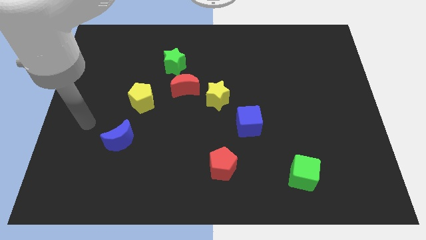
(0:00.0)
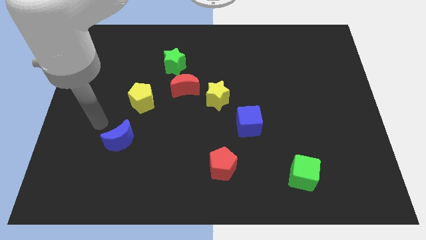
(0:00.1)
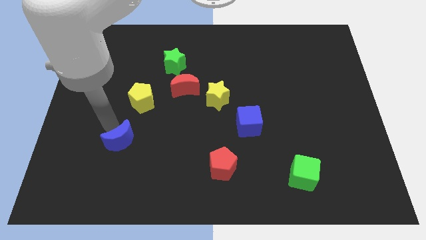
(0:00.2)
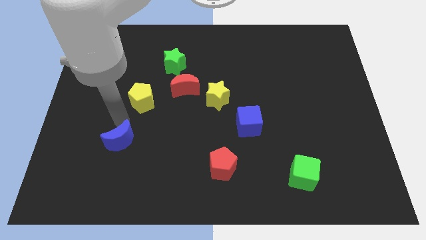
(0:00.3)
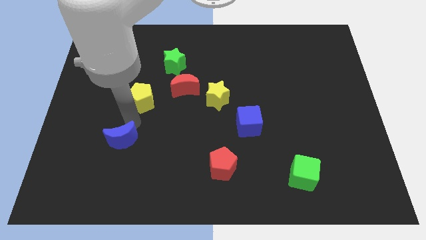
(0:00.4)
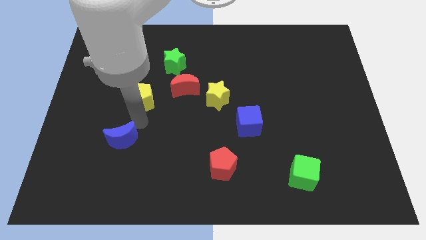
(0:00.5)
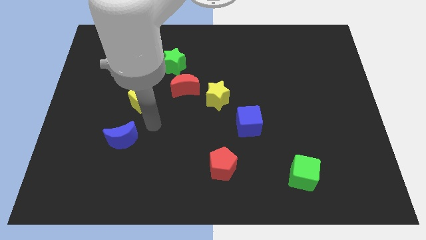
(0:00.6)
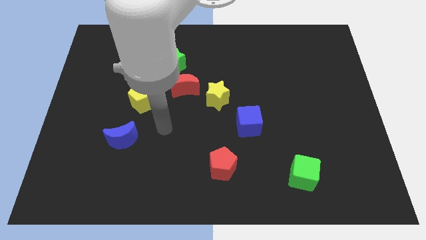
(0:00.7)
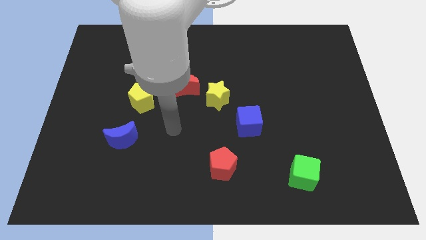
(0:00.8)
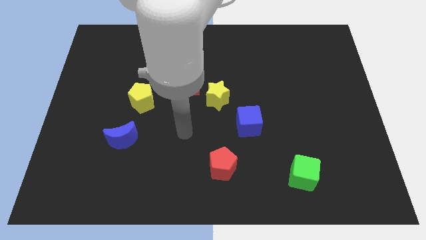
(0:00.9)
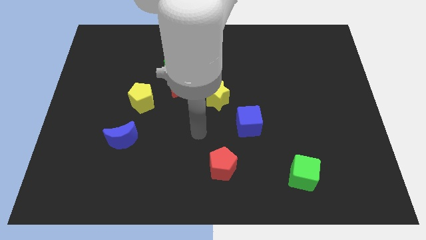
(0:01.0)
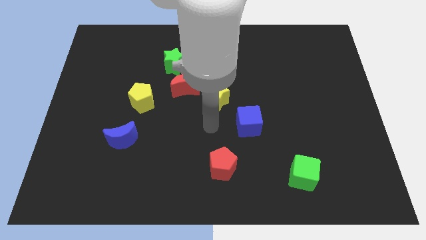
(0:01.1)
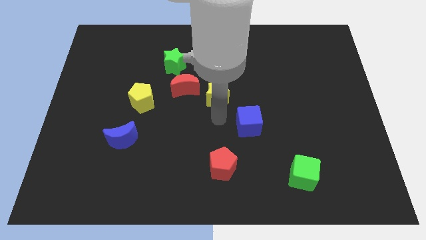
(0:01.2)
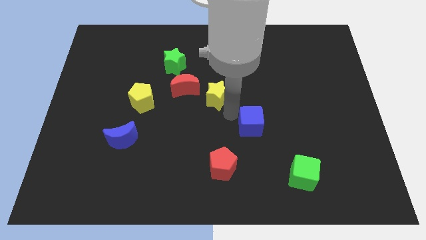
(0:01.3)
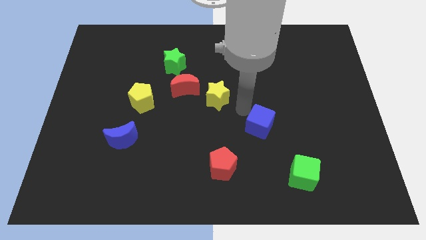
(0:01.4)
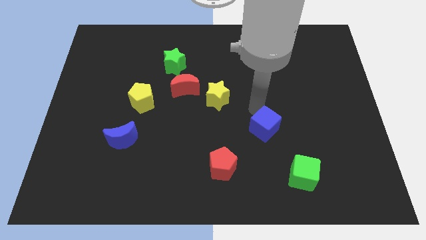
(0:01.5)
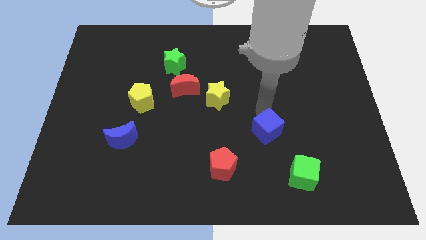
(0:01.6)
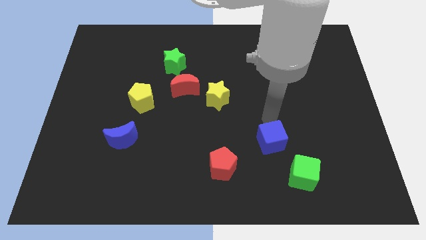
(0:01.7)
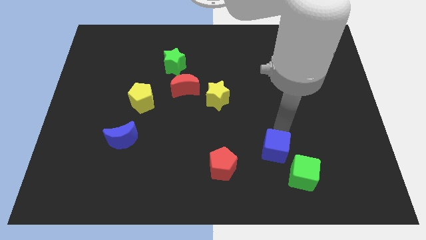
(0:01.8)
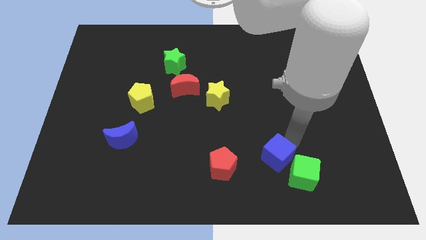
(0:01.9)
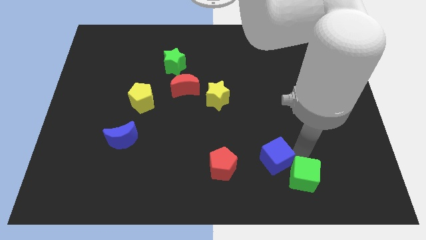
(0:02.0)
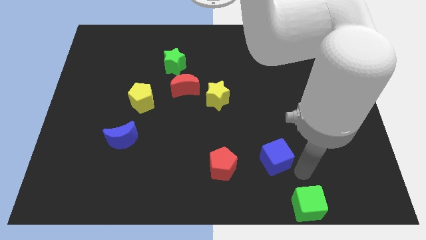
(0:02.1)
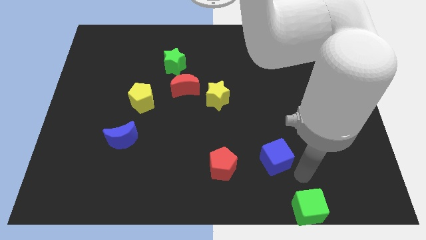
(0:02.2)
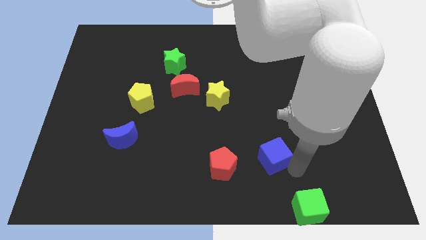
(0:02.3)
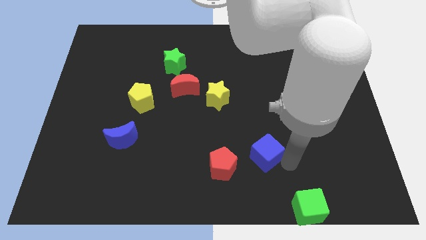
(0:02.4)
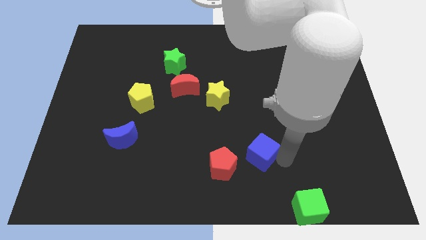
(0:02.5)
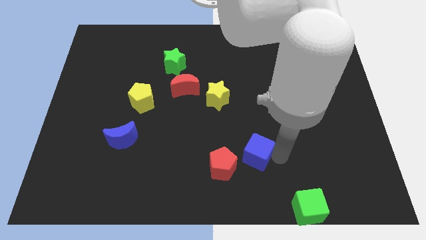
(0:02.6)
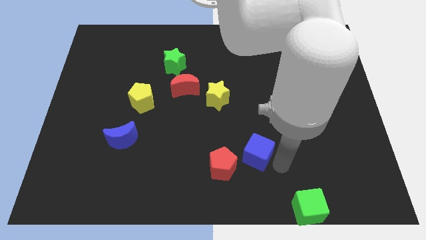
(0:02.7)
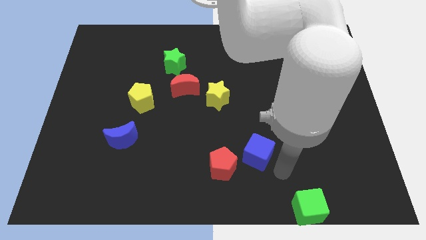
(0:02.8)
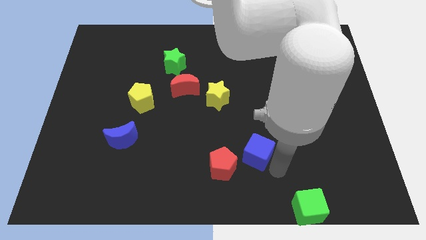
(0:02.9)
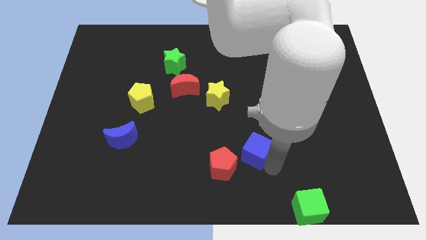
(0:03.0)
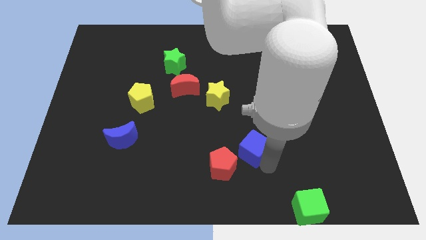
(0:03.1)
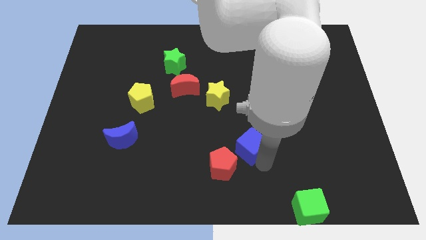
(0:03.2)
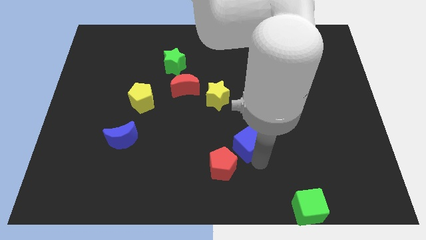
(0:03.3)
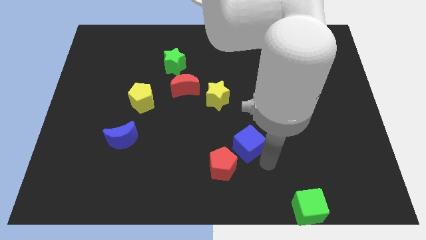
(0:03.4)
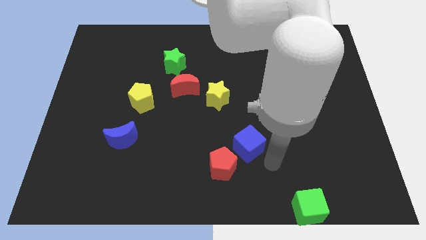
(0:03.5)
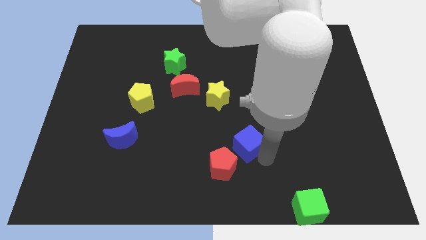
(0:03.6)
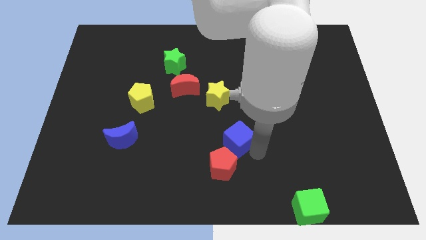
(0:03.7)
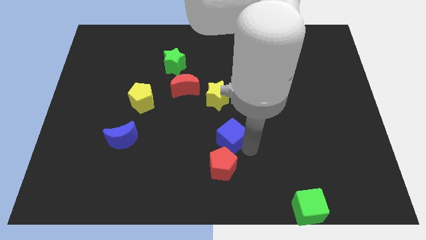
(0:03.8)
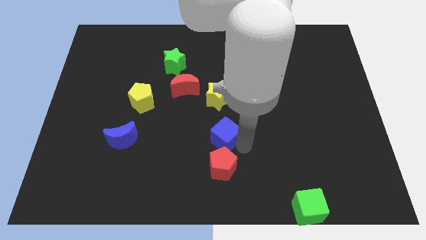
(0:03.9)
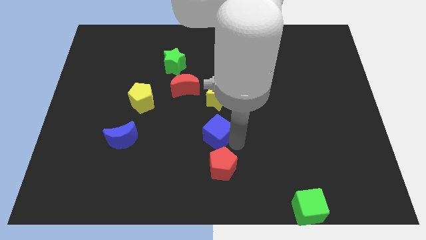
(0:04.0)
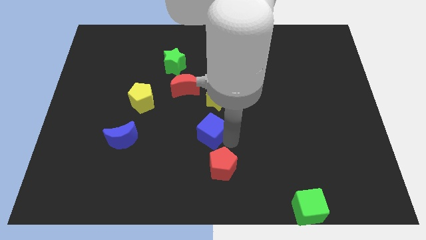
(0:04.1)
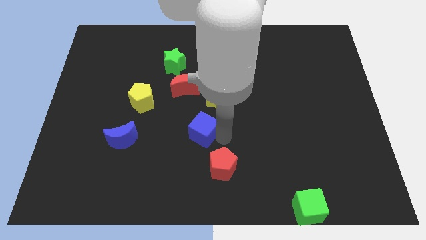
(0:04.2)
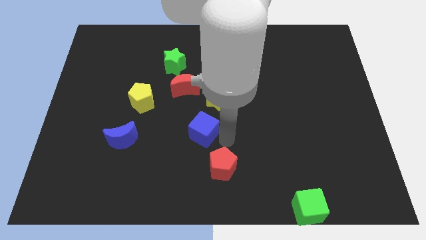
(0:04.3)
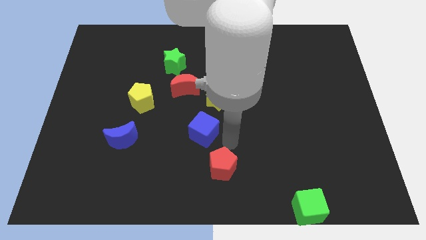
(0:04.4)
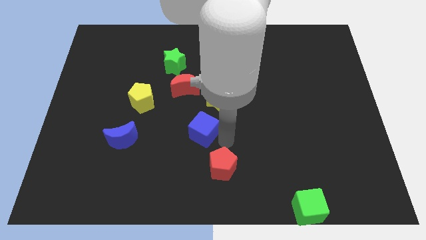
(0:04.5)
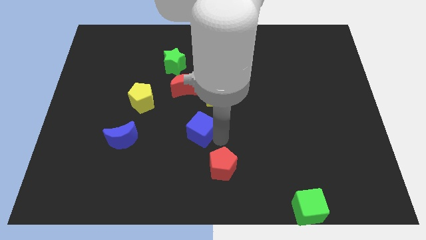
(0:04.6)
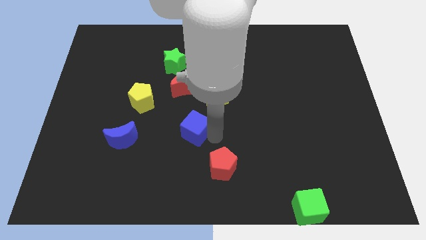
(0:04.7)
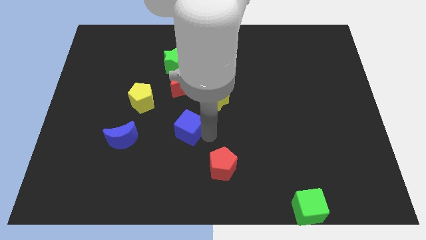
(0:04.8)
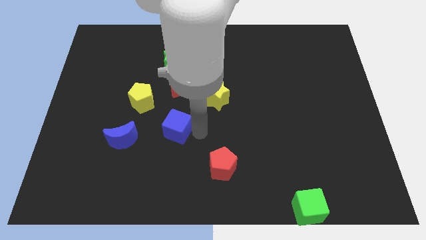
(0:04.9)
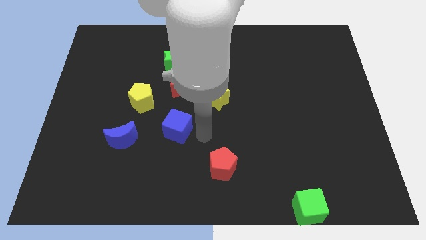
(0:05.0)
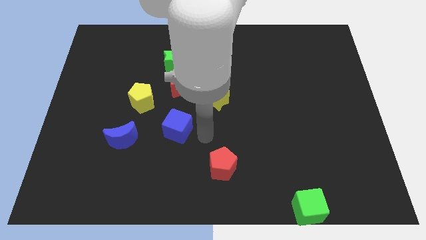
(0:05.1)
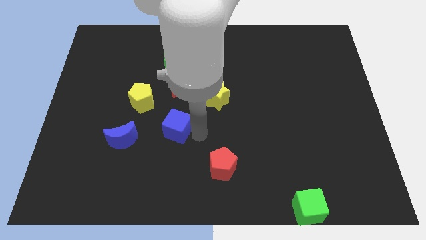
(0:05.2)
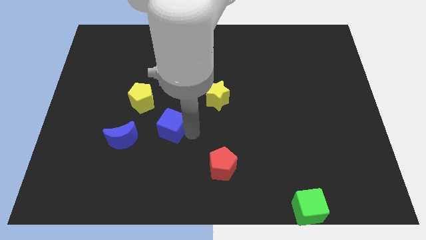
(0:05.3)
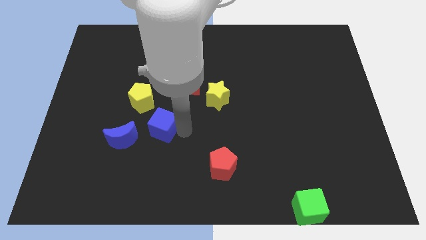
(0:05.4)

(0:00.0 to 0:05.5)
move the blue cube to the top right of the blue moon

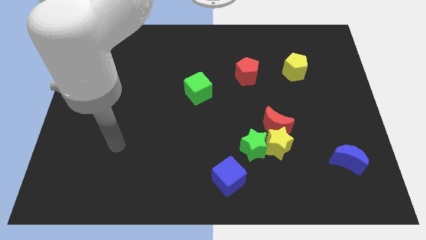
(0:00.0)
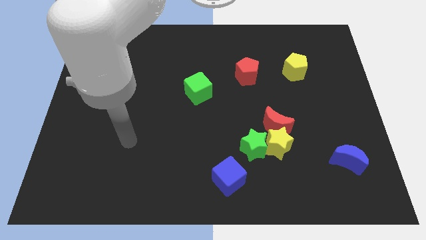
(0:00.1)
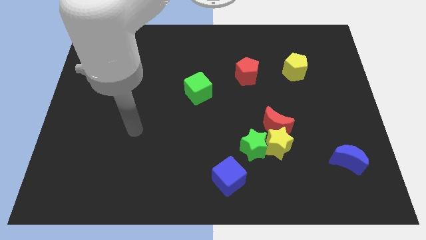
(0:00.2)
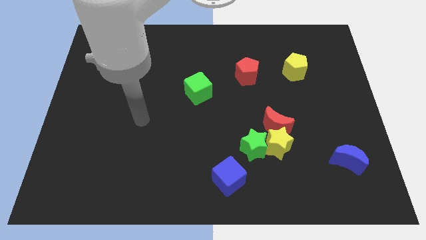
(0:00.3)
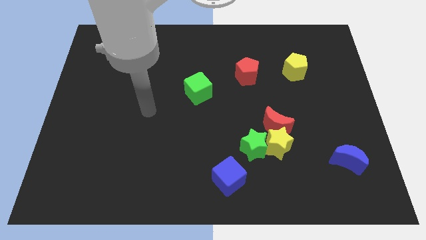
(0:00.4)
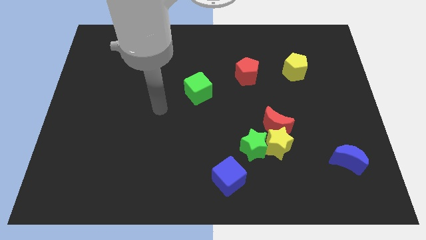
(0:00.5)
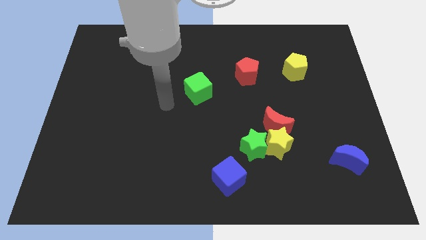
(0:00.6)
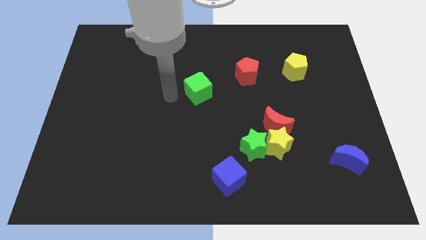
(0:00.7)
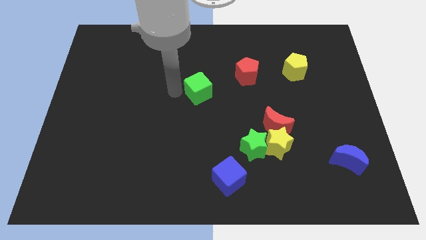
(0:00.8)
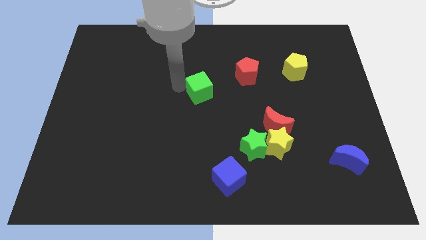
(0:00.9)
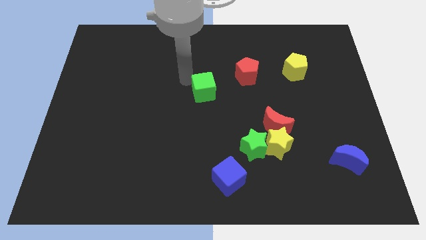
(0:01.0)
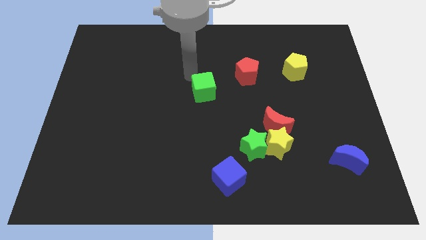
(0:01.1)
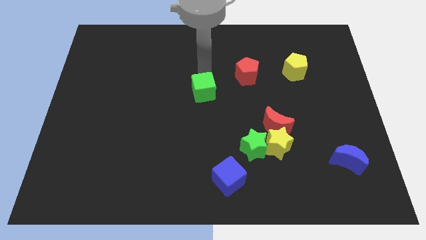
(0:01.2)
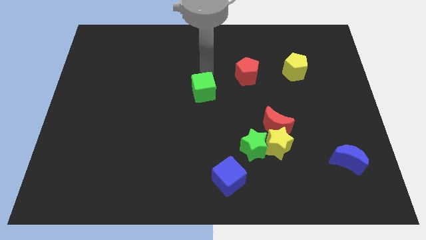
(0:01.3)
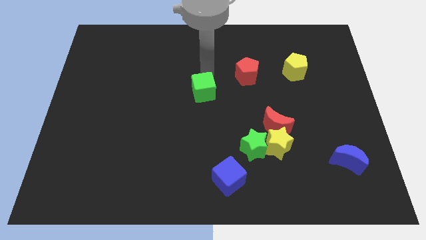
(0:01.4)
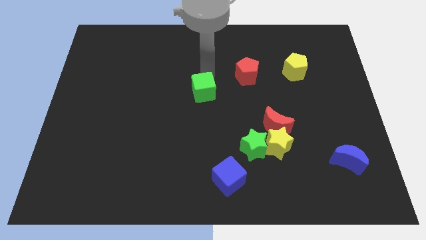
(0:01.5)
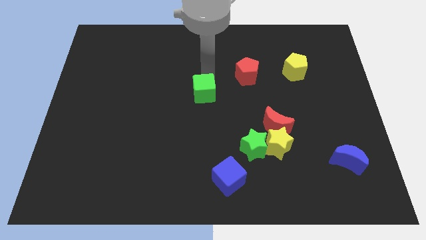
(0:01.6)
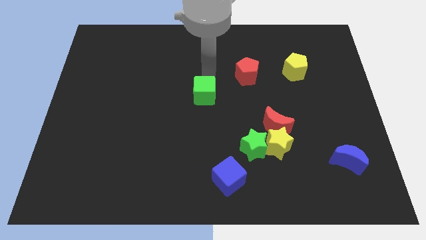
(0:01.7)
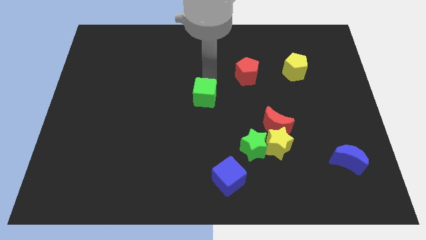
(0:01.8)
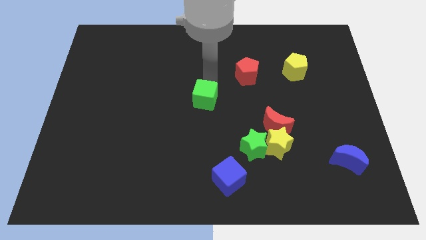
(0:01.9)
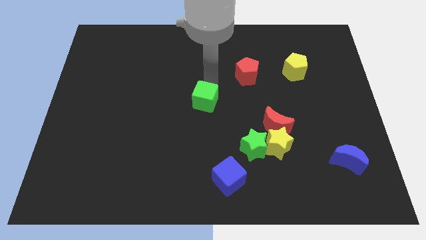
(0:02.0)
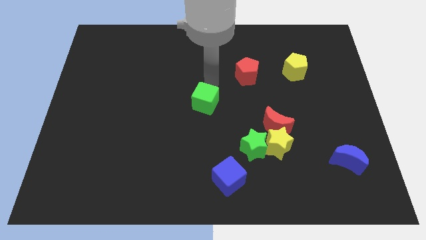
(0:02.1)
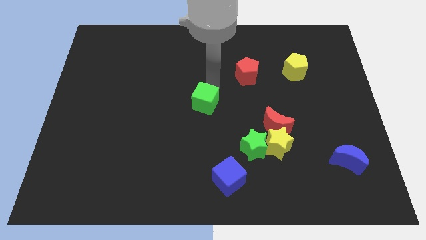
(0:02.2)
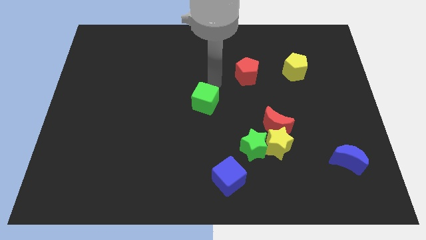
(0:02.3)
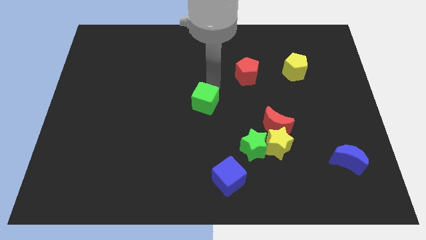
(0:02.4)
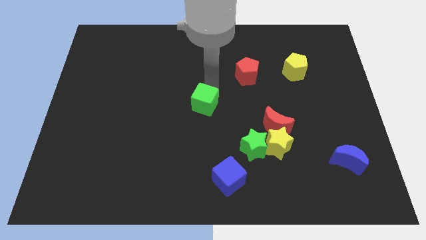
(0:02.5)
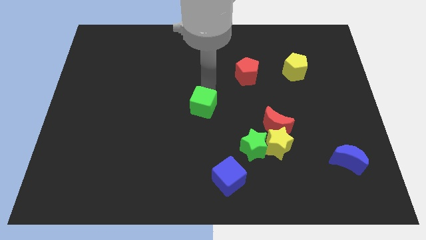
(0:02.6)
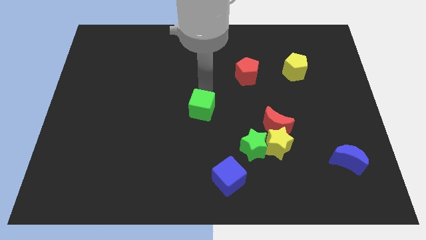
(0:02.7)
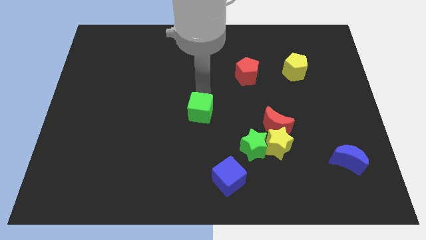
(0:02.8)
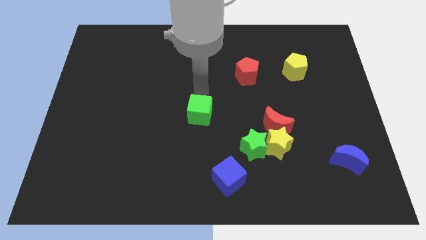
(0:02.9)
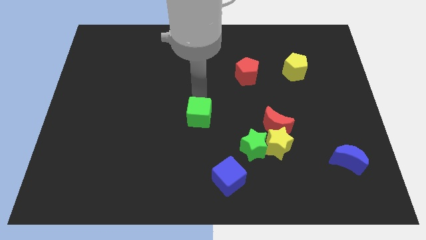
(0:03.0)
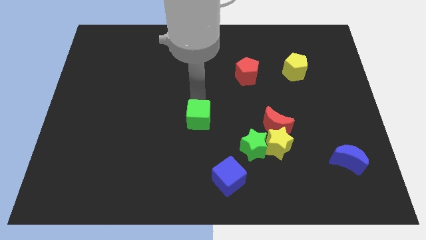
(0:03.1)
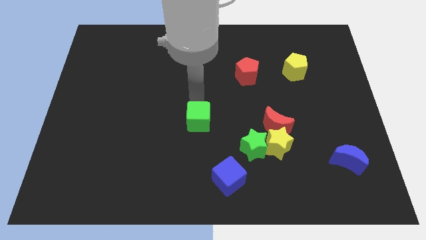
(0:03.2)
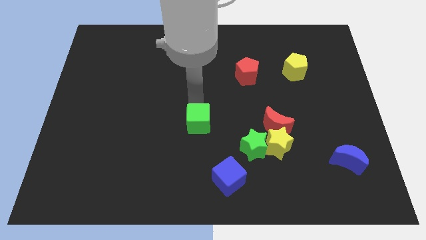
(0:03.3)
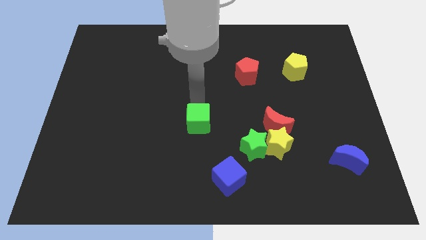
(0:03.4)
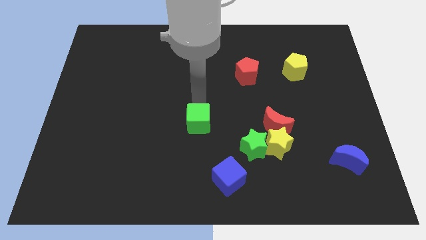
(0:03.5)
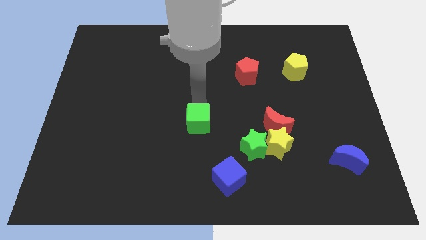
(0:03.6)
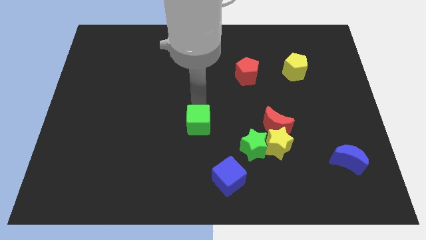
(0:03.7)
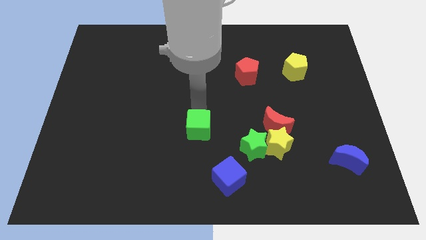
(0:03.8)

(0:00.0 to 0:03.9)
push the green cube to the left side of the green star
